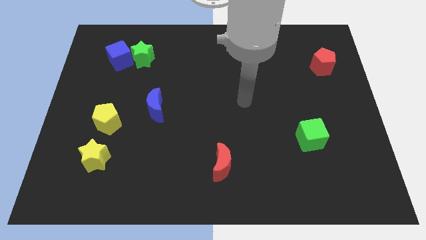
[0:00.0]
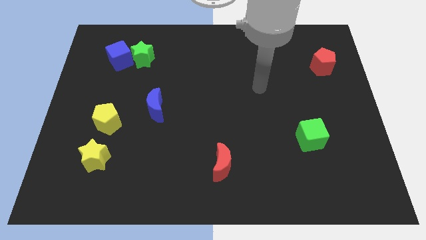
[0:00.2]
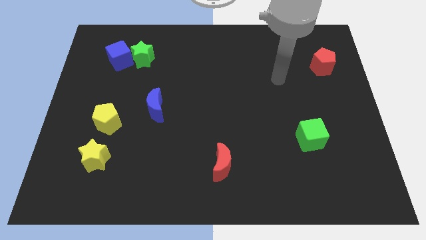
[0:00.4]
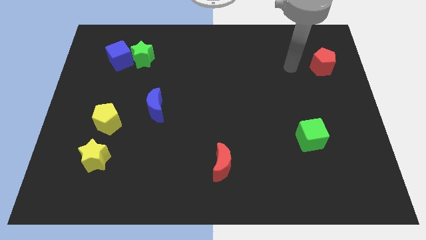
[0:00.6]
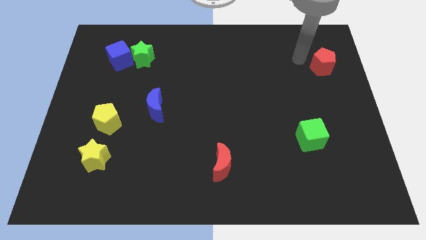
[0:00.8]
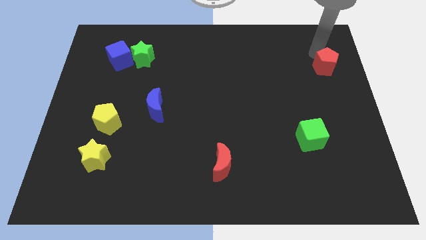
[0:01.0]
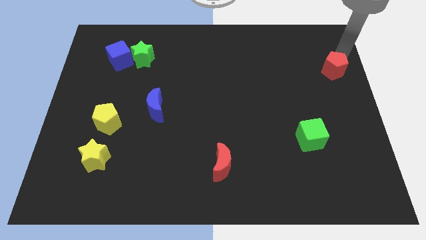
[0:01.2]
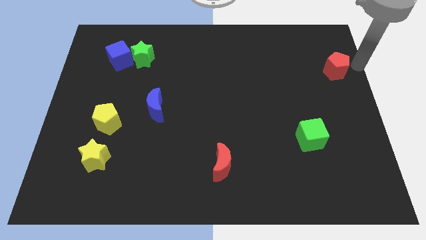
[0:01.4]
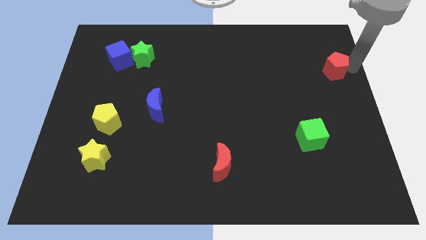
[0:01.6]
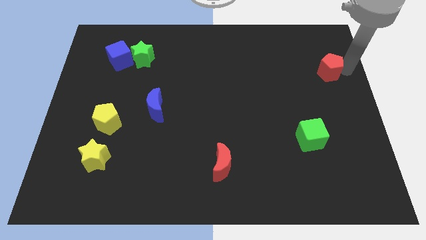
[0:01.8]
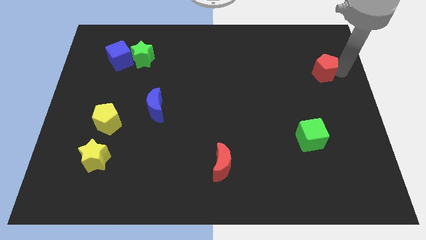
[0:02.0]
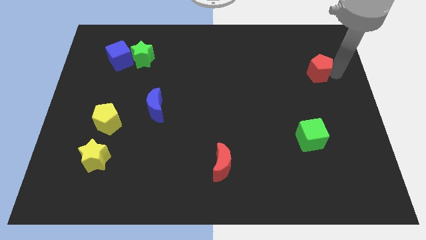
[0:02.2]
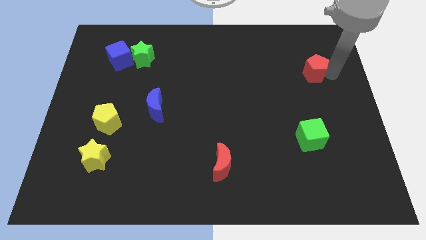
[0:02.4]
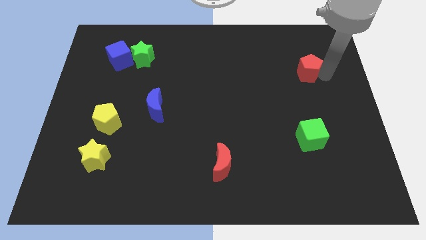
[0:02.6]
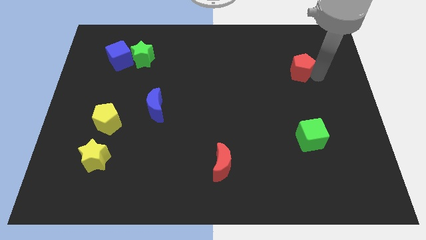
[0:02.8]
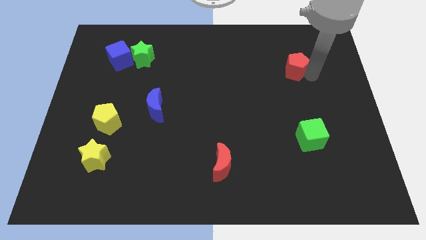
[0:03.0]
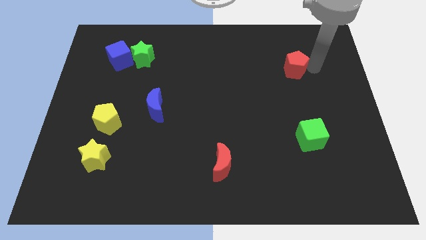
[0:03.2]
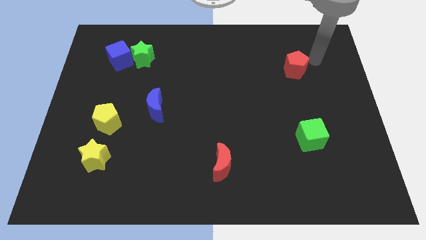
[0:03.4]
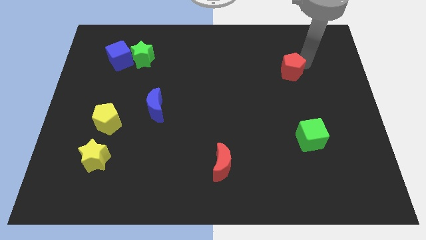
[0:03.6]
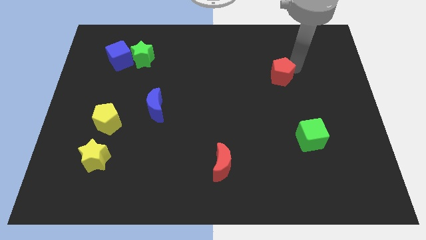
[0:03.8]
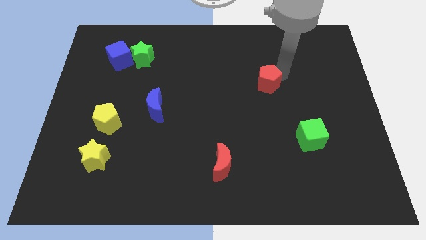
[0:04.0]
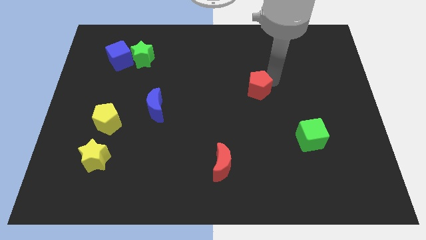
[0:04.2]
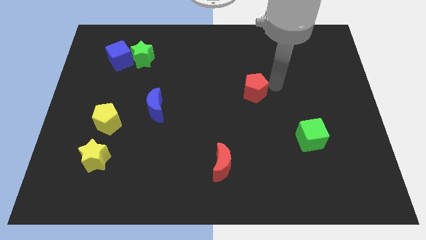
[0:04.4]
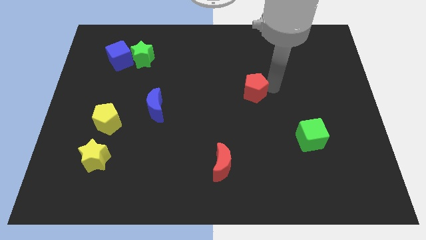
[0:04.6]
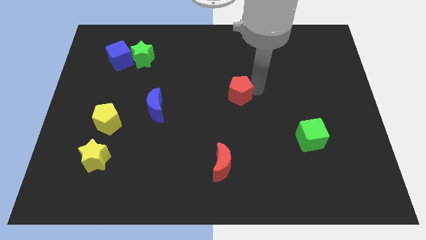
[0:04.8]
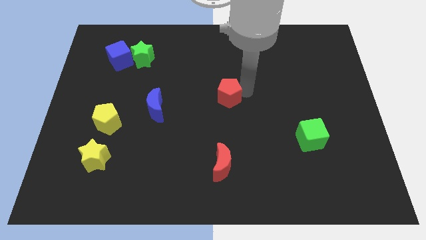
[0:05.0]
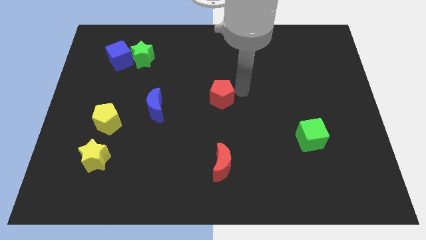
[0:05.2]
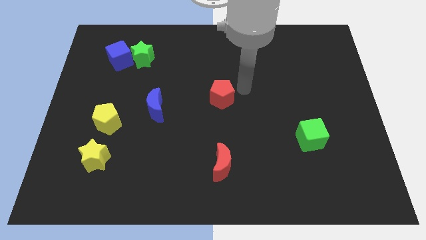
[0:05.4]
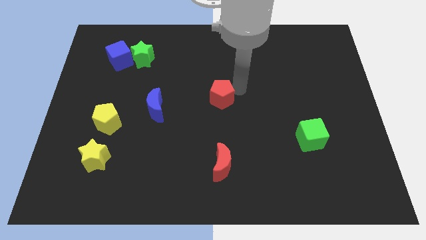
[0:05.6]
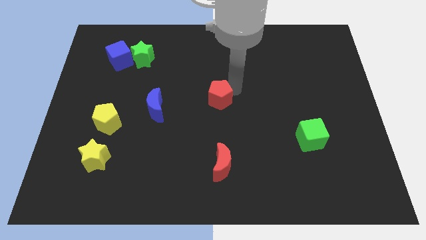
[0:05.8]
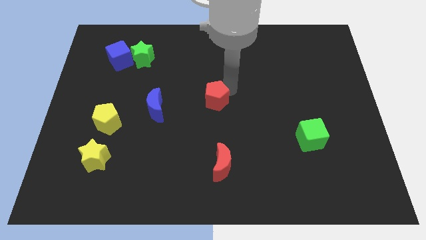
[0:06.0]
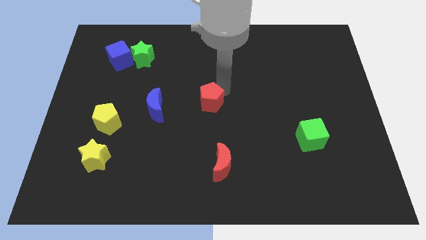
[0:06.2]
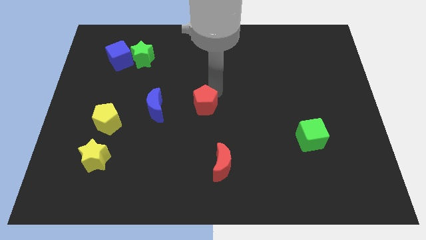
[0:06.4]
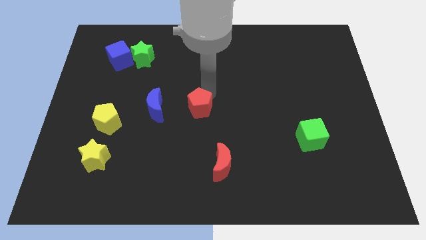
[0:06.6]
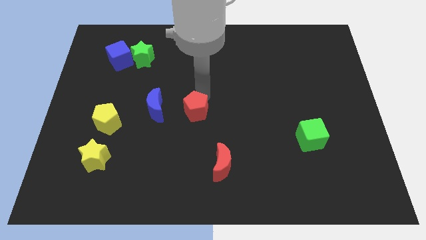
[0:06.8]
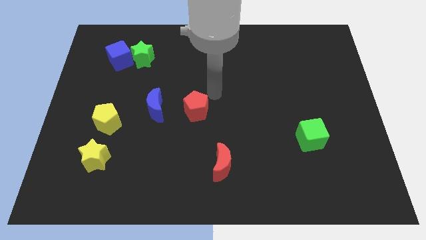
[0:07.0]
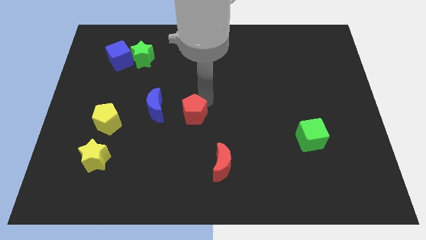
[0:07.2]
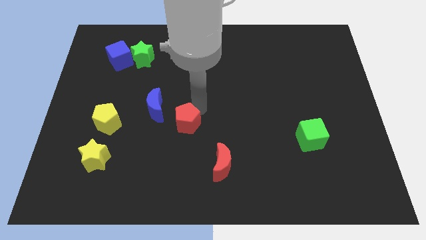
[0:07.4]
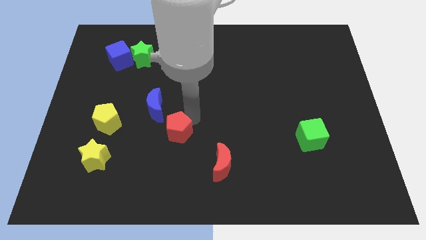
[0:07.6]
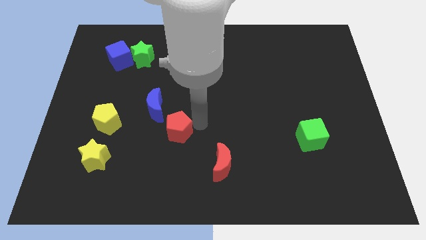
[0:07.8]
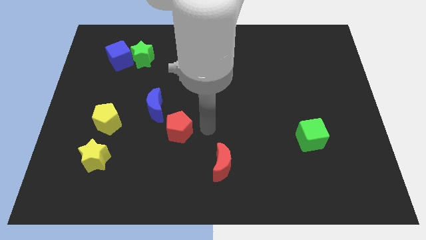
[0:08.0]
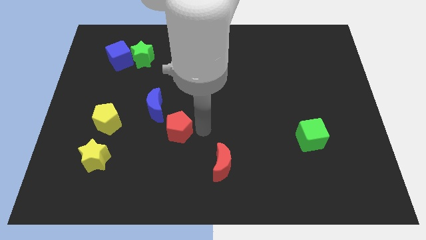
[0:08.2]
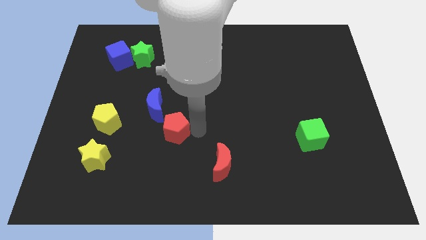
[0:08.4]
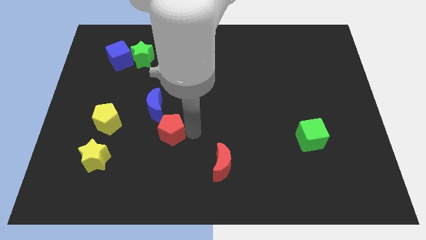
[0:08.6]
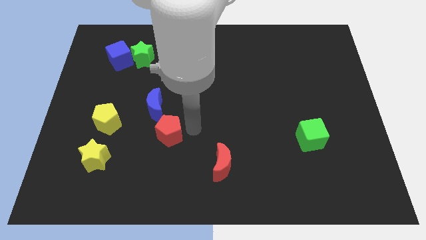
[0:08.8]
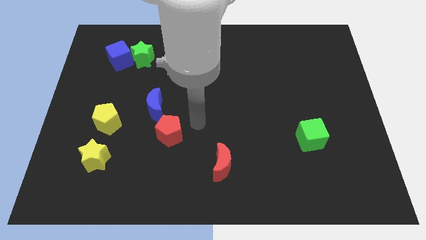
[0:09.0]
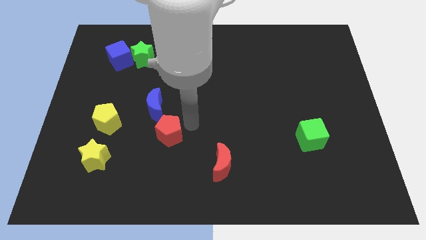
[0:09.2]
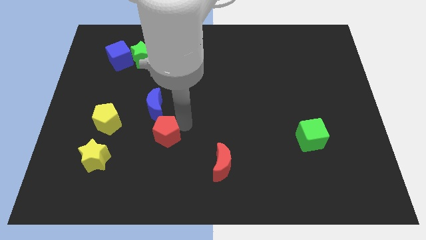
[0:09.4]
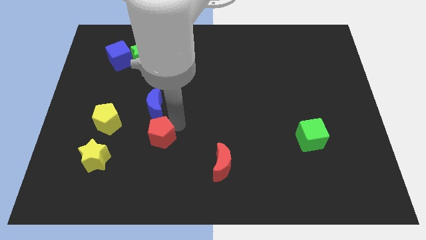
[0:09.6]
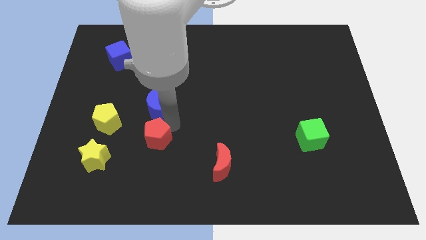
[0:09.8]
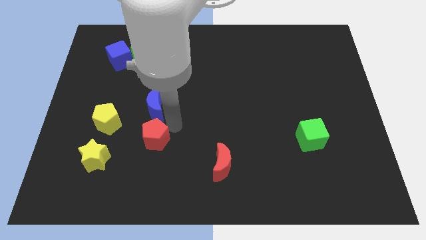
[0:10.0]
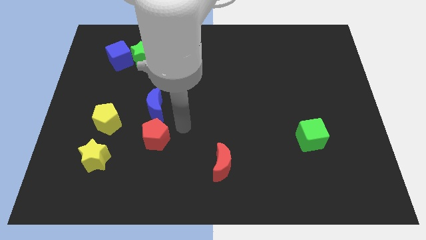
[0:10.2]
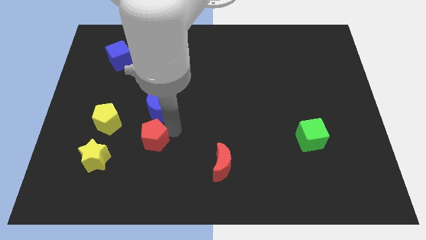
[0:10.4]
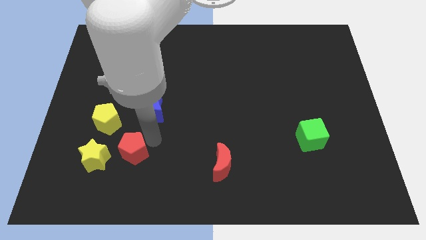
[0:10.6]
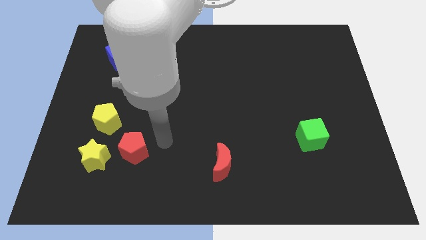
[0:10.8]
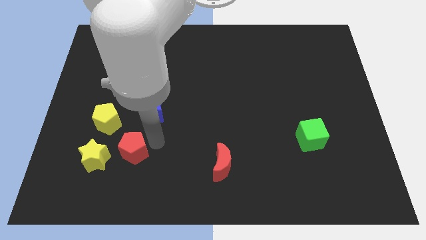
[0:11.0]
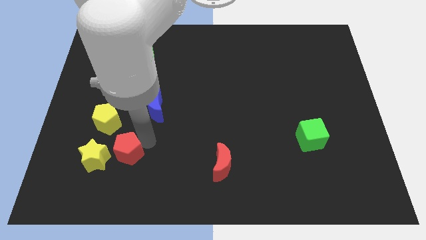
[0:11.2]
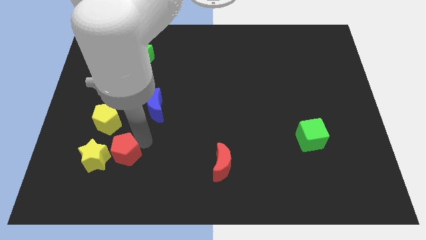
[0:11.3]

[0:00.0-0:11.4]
slide the red pentagon close to the yellow star
